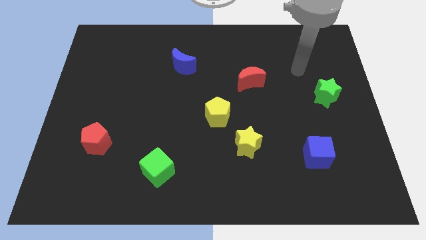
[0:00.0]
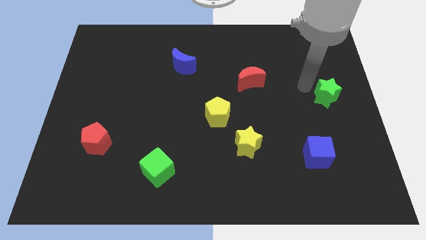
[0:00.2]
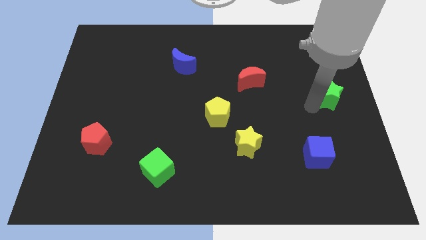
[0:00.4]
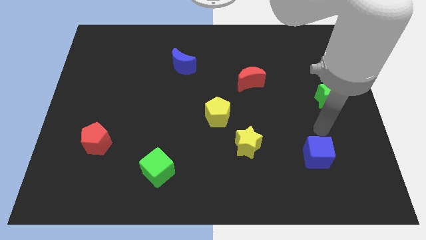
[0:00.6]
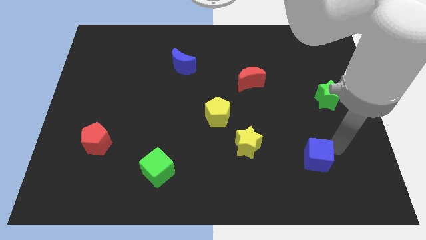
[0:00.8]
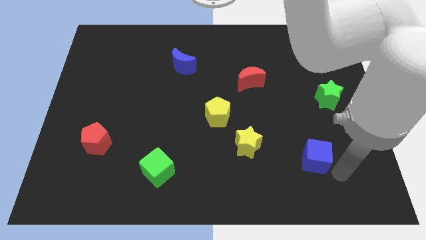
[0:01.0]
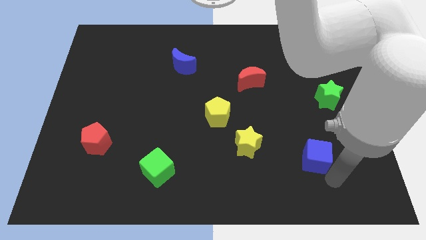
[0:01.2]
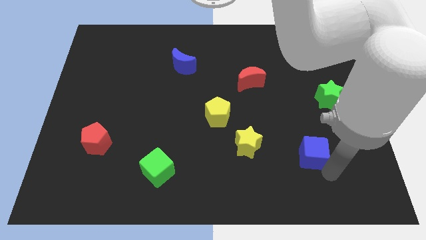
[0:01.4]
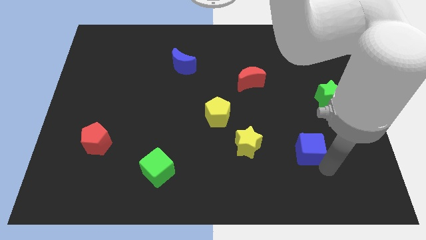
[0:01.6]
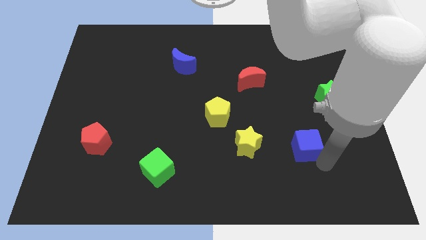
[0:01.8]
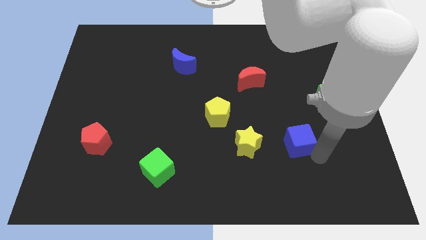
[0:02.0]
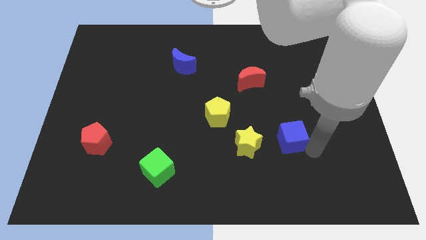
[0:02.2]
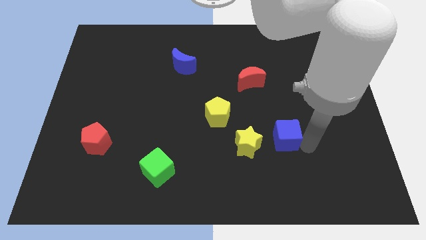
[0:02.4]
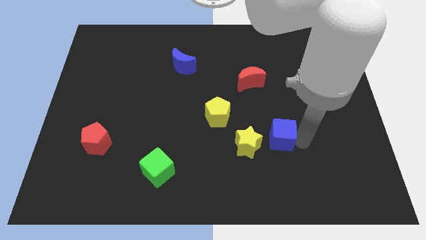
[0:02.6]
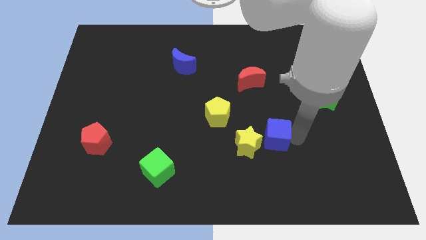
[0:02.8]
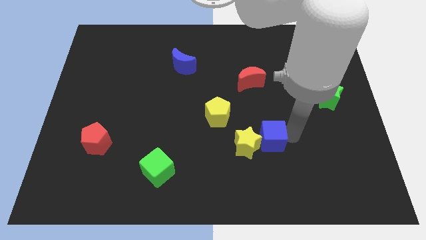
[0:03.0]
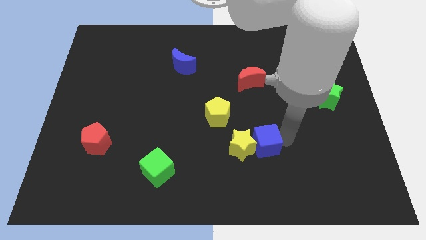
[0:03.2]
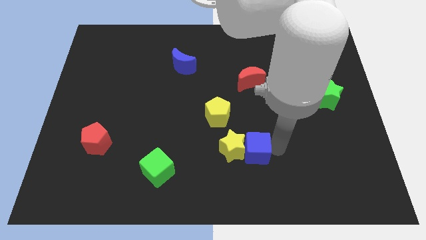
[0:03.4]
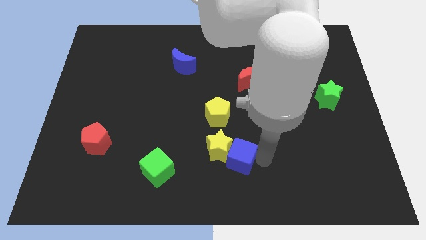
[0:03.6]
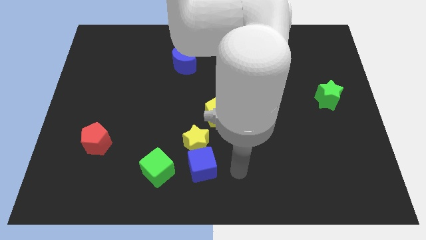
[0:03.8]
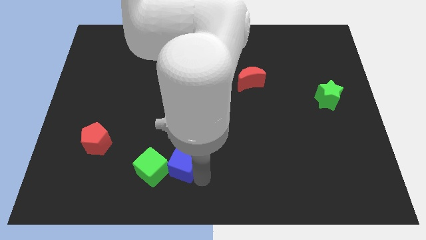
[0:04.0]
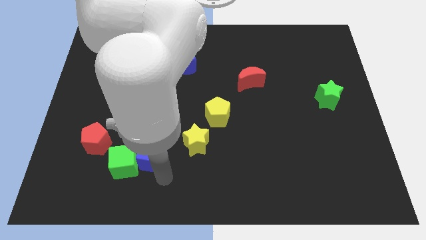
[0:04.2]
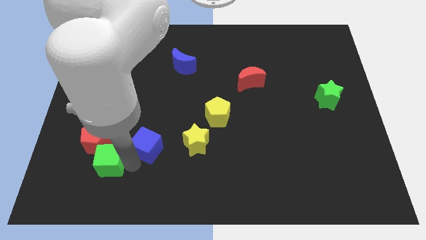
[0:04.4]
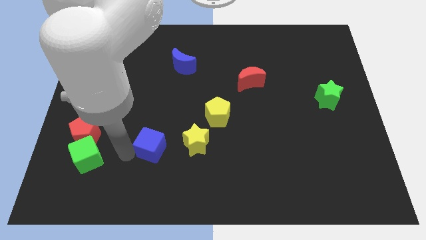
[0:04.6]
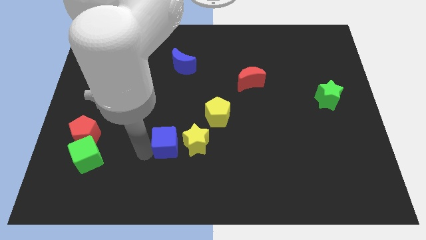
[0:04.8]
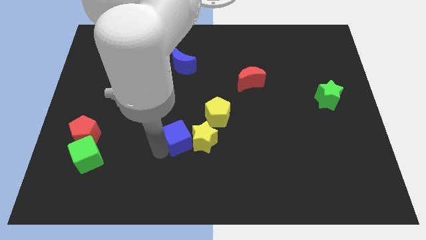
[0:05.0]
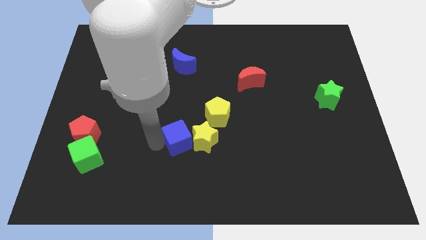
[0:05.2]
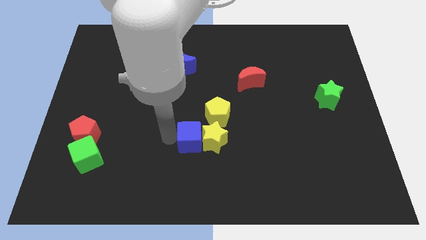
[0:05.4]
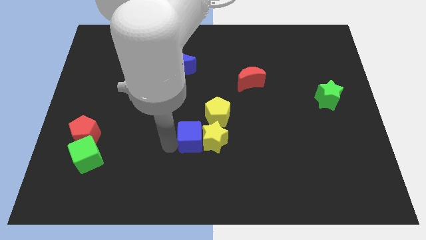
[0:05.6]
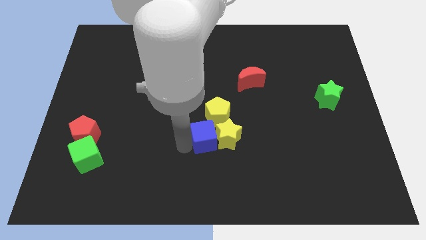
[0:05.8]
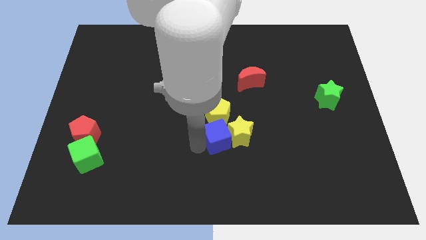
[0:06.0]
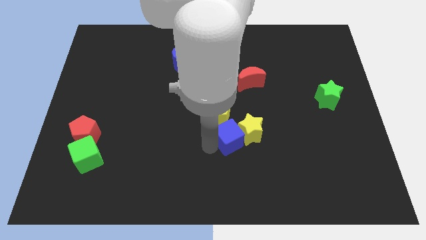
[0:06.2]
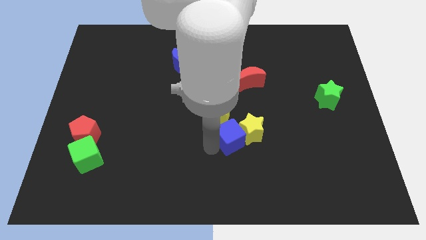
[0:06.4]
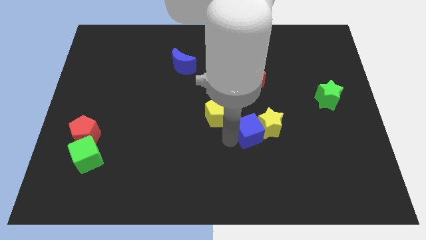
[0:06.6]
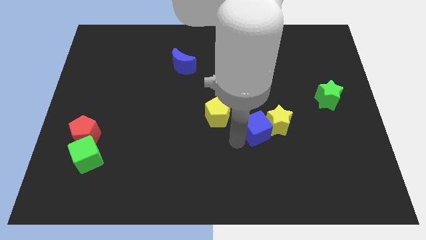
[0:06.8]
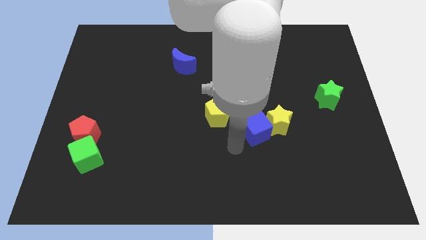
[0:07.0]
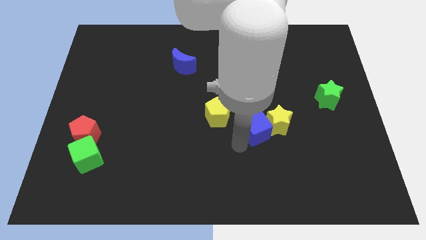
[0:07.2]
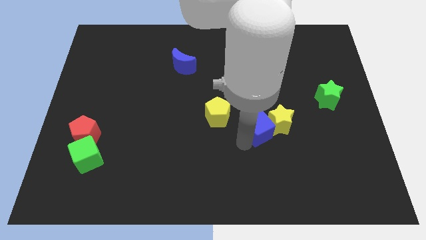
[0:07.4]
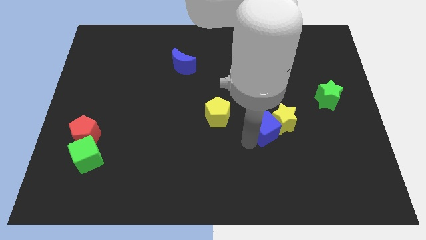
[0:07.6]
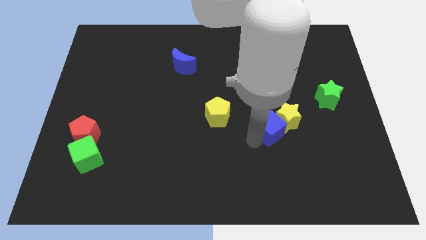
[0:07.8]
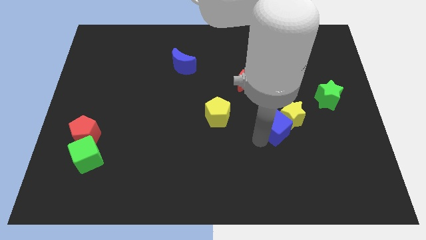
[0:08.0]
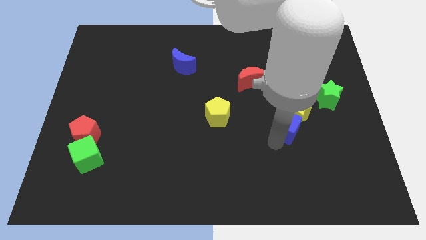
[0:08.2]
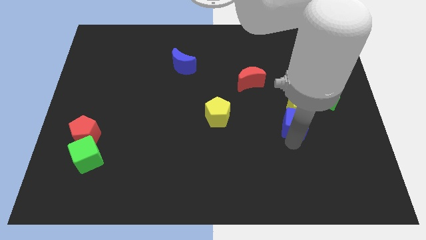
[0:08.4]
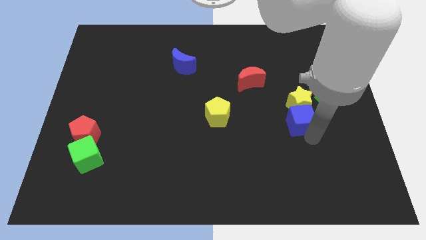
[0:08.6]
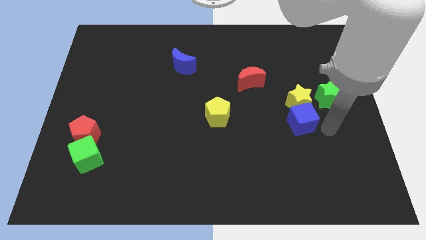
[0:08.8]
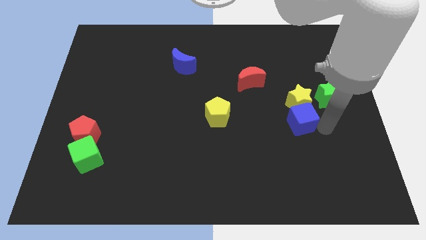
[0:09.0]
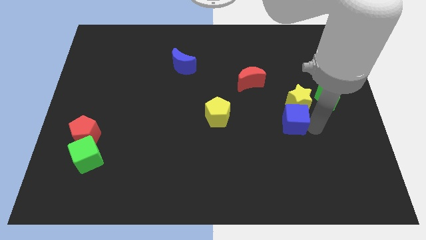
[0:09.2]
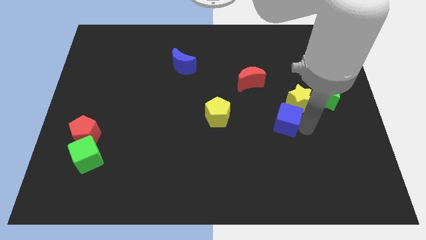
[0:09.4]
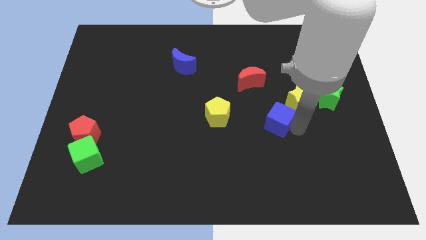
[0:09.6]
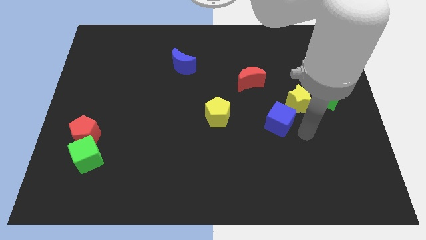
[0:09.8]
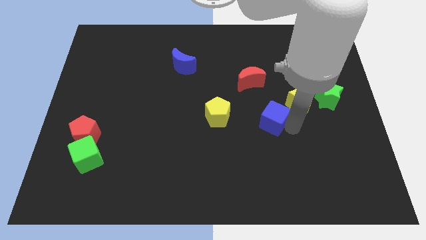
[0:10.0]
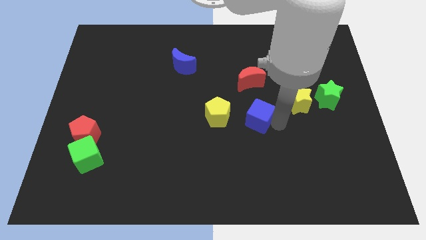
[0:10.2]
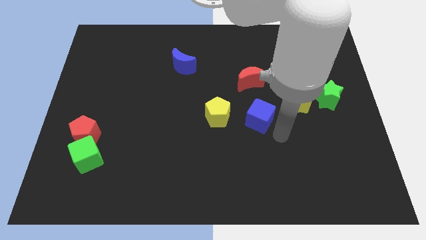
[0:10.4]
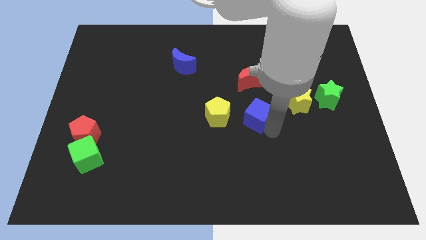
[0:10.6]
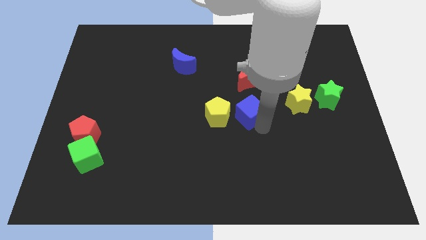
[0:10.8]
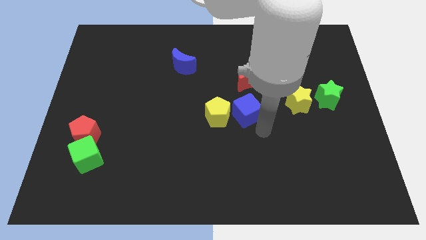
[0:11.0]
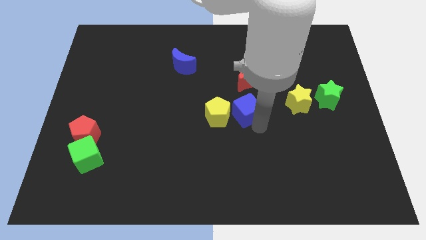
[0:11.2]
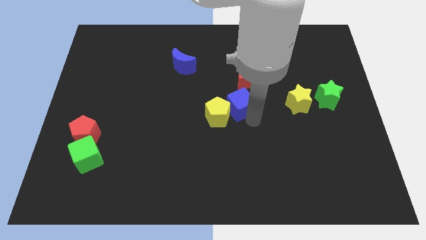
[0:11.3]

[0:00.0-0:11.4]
move the blue cube up and left

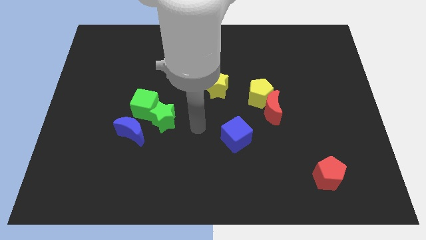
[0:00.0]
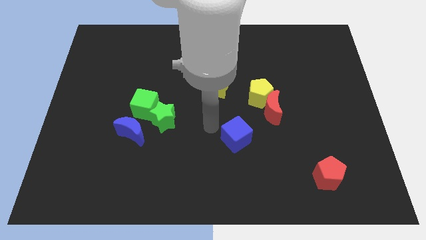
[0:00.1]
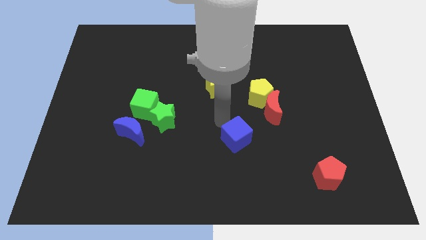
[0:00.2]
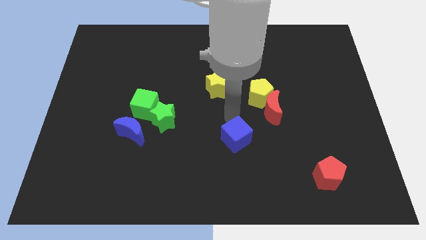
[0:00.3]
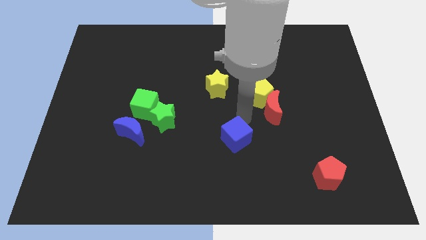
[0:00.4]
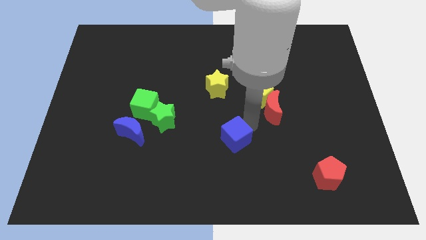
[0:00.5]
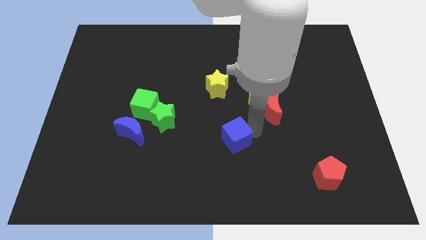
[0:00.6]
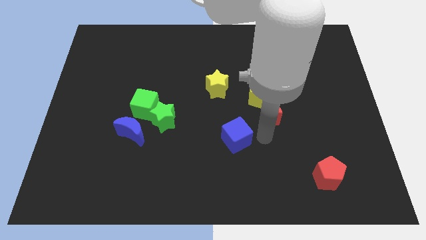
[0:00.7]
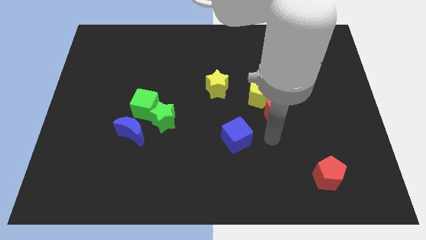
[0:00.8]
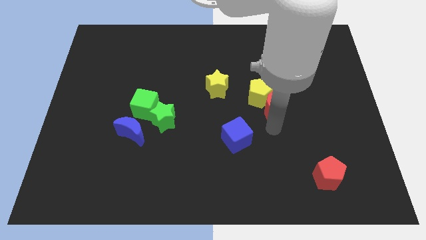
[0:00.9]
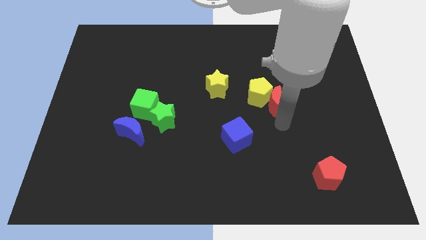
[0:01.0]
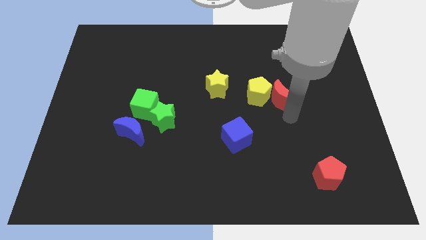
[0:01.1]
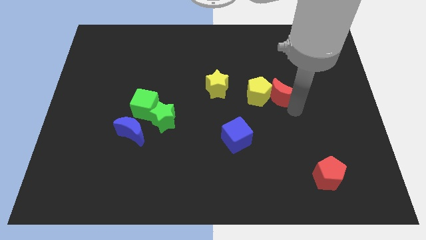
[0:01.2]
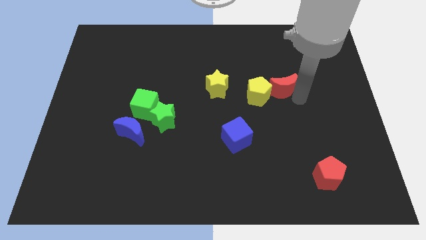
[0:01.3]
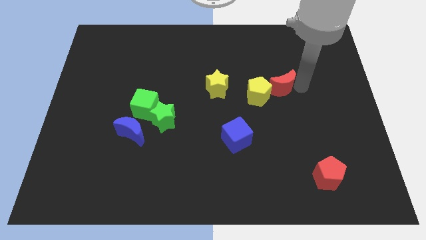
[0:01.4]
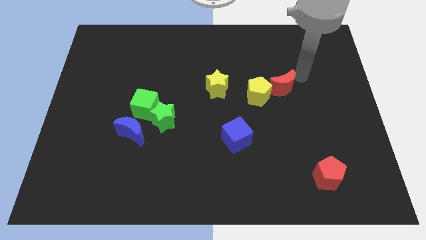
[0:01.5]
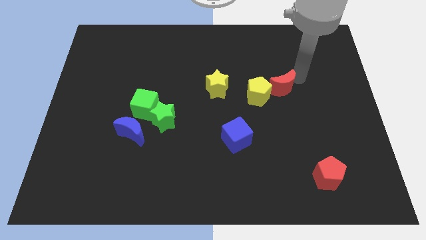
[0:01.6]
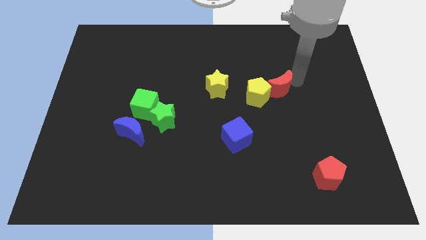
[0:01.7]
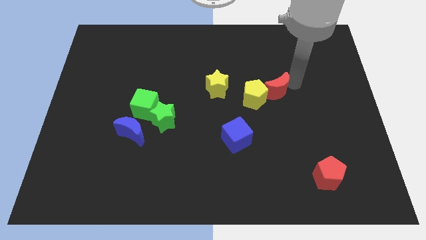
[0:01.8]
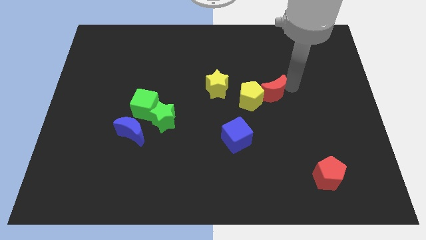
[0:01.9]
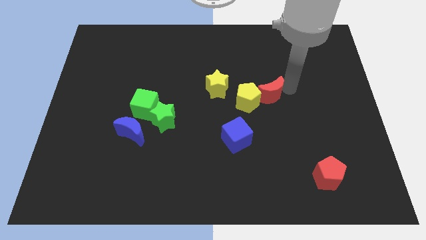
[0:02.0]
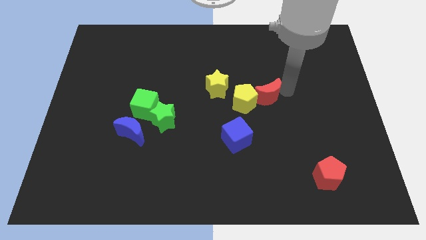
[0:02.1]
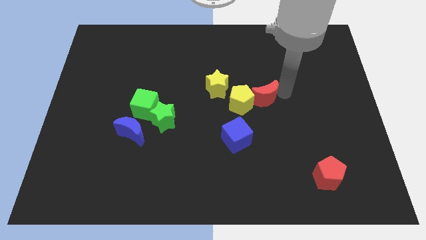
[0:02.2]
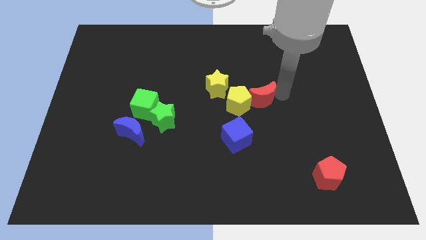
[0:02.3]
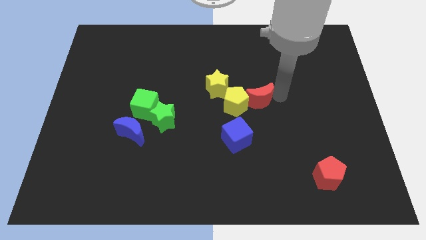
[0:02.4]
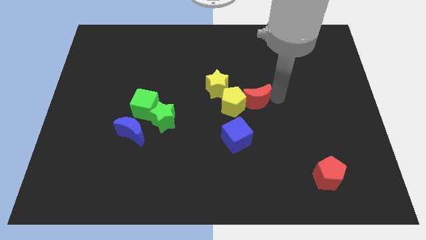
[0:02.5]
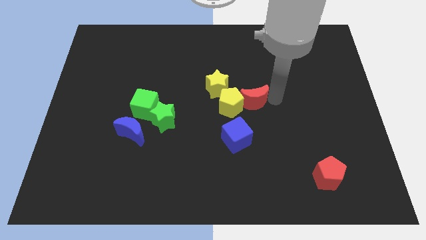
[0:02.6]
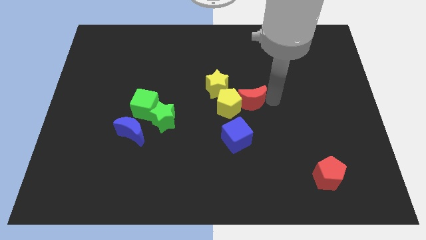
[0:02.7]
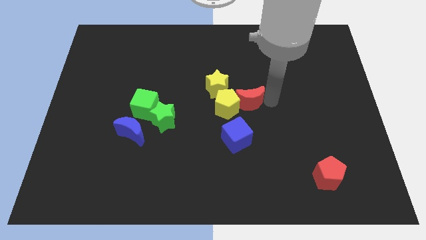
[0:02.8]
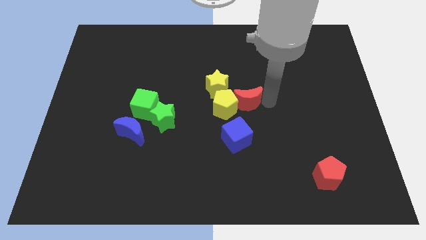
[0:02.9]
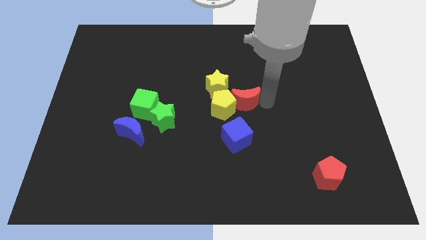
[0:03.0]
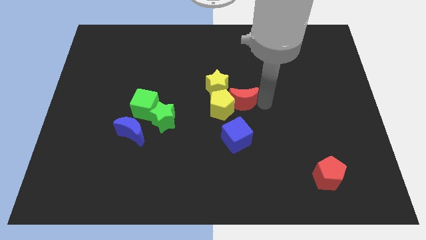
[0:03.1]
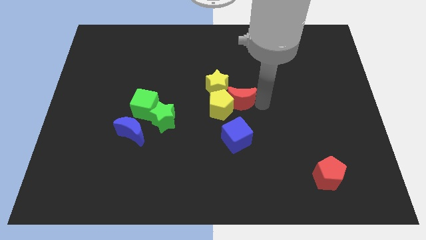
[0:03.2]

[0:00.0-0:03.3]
slightly slide the red moon left
